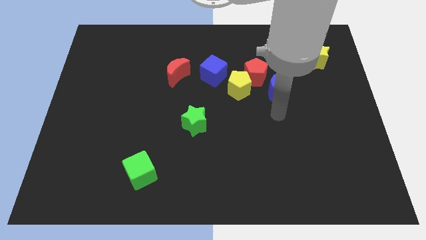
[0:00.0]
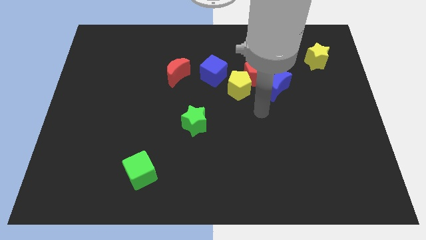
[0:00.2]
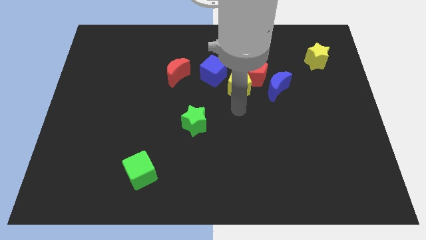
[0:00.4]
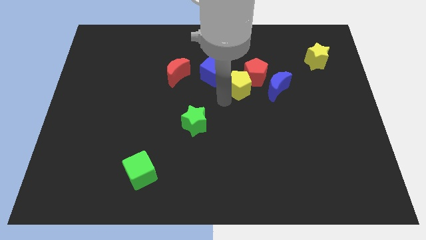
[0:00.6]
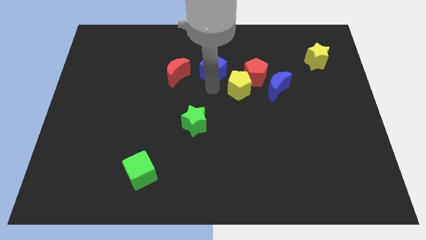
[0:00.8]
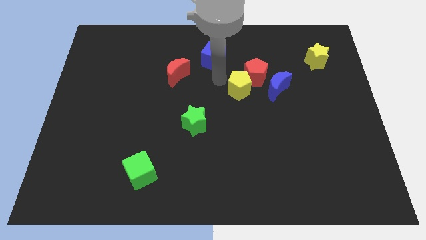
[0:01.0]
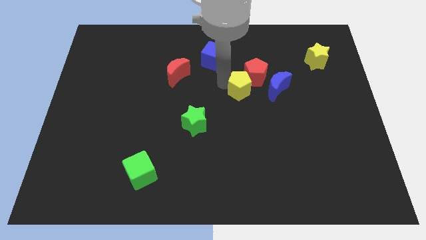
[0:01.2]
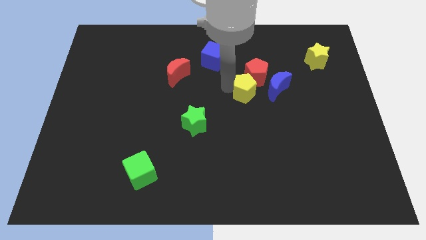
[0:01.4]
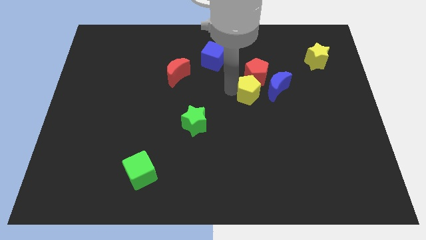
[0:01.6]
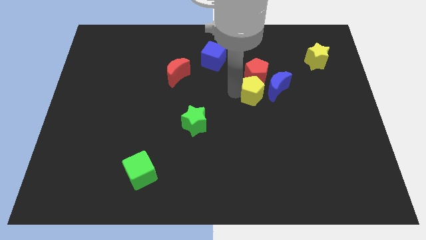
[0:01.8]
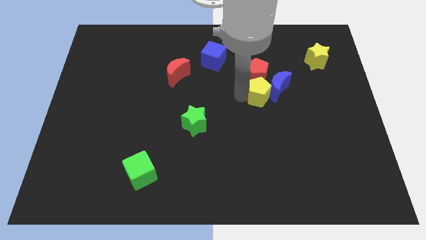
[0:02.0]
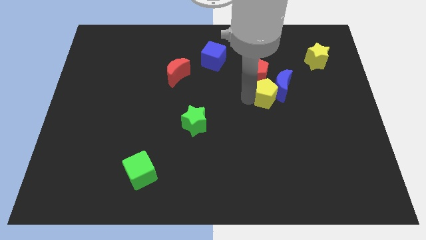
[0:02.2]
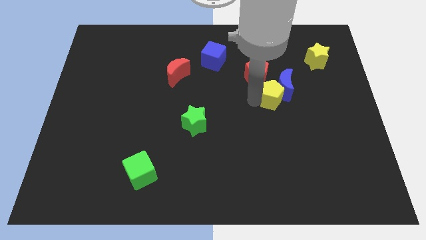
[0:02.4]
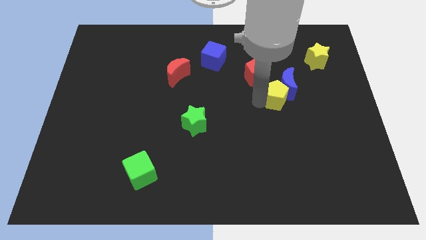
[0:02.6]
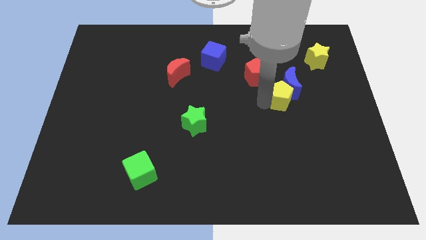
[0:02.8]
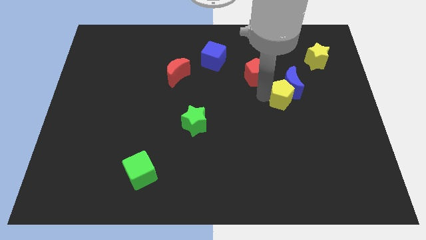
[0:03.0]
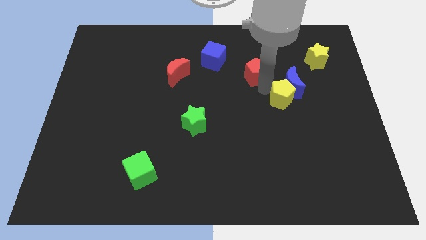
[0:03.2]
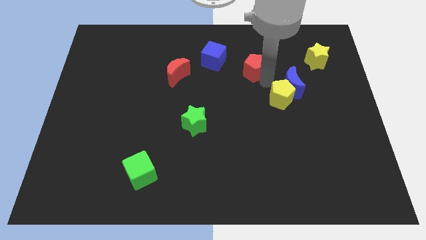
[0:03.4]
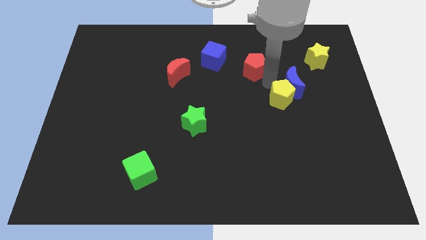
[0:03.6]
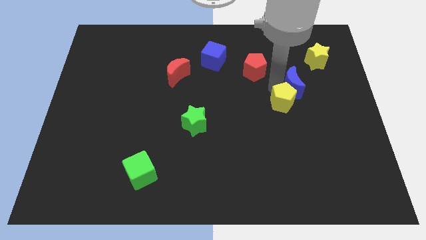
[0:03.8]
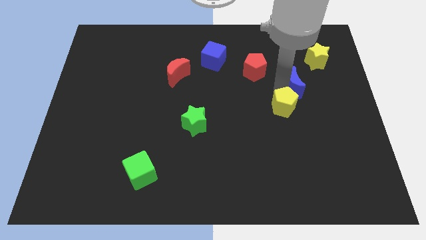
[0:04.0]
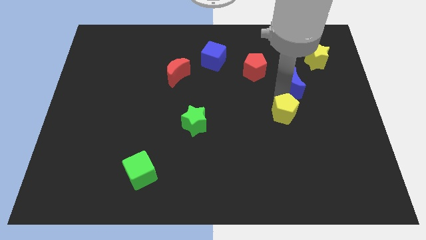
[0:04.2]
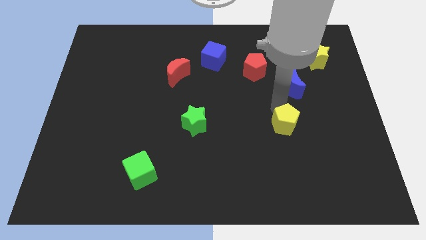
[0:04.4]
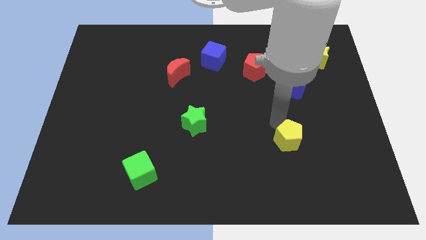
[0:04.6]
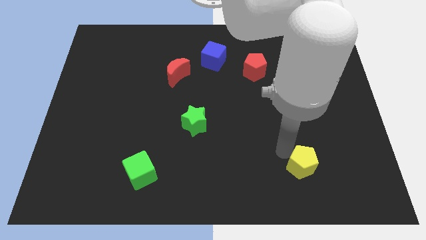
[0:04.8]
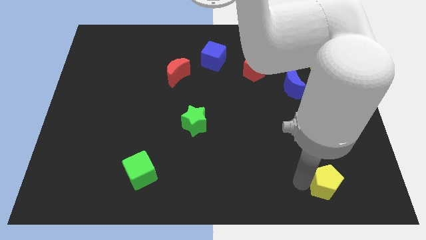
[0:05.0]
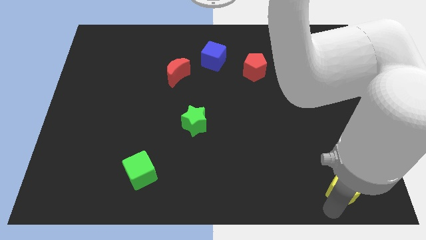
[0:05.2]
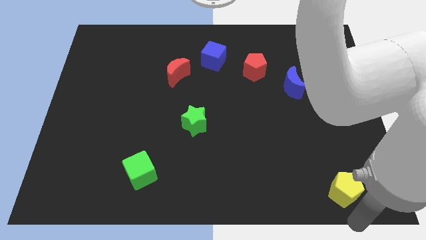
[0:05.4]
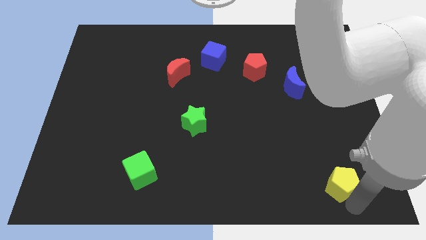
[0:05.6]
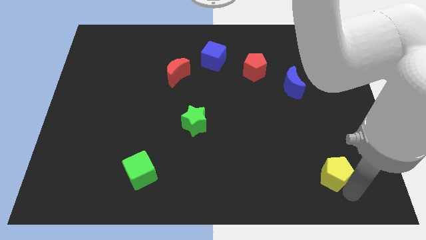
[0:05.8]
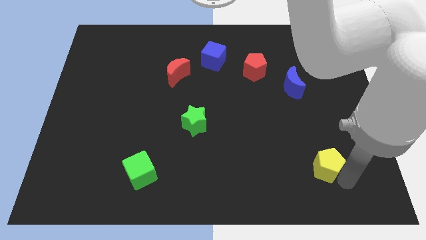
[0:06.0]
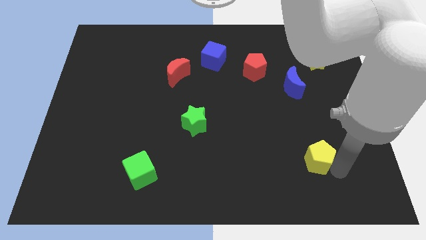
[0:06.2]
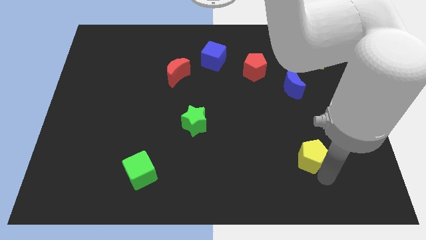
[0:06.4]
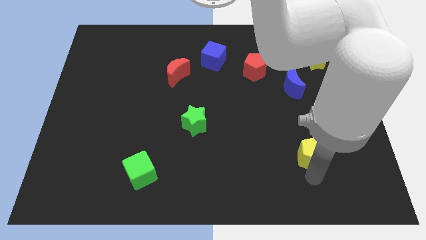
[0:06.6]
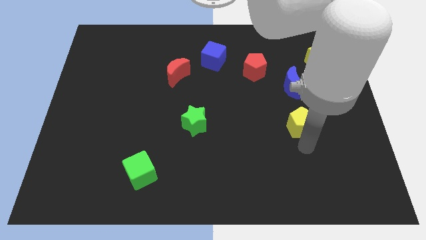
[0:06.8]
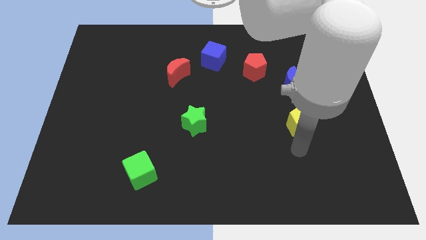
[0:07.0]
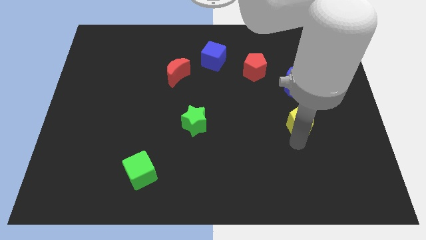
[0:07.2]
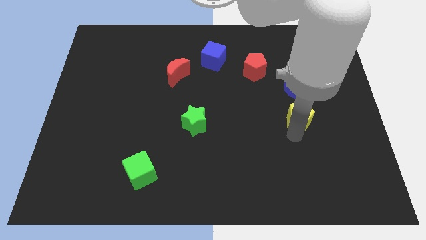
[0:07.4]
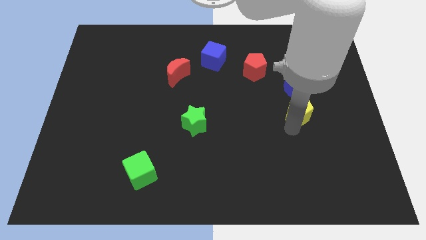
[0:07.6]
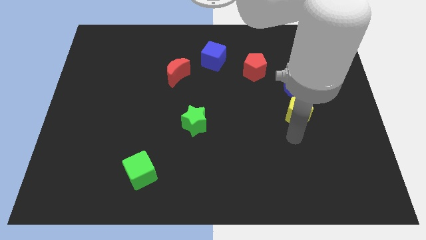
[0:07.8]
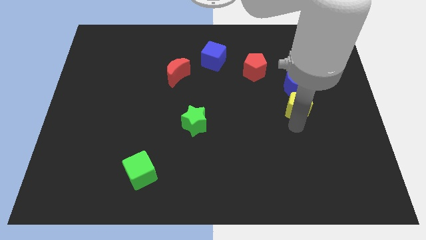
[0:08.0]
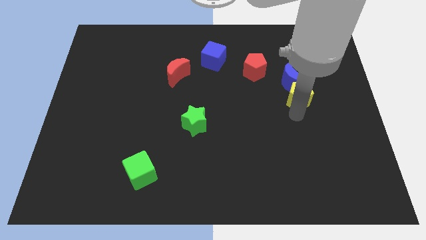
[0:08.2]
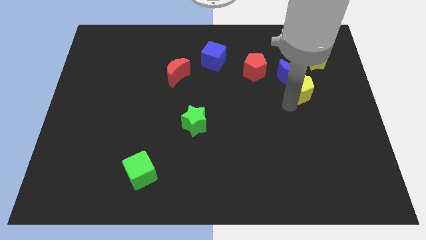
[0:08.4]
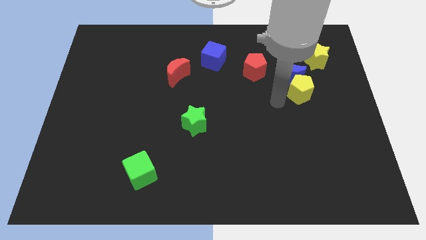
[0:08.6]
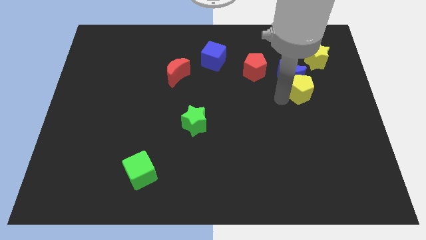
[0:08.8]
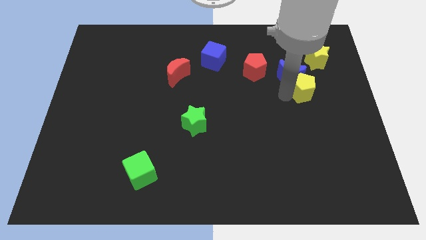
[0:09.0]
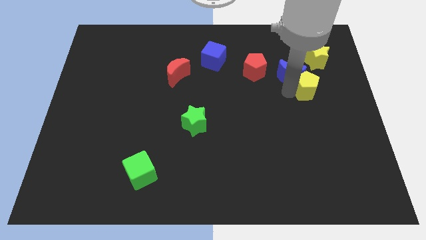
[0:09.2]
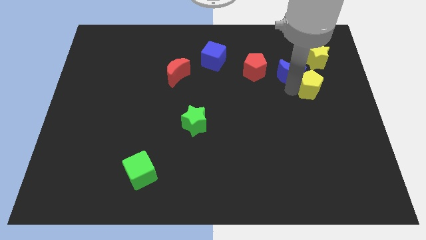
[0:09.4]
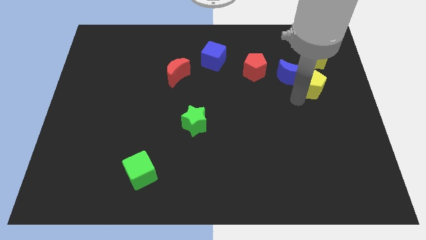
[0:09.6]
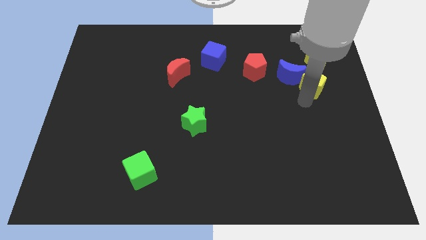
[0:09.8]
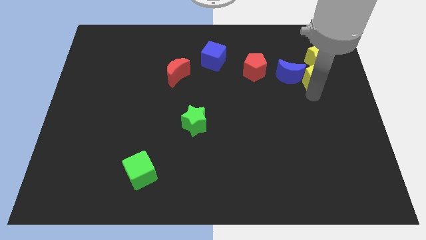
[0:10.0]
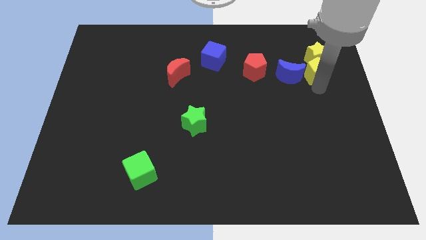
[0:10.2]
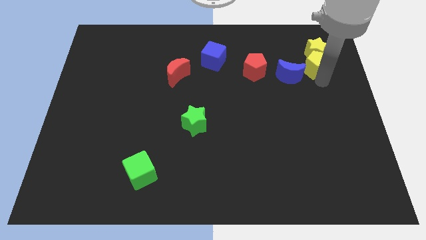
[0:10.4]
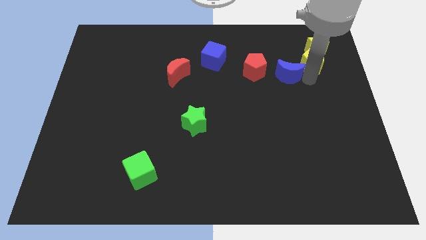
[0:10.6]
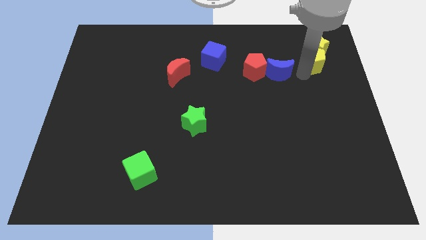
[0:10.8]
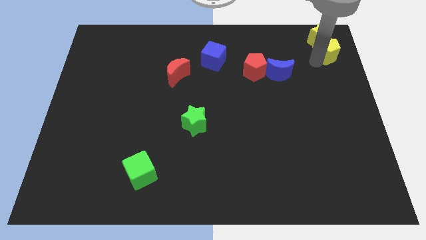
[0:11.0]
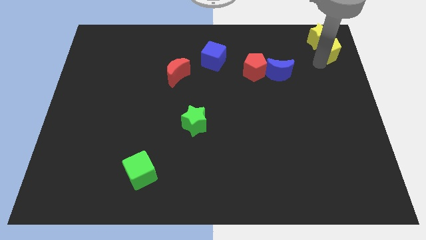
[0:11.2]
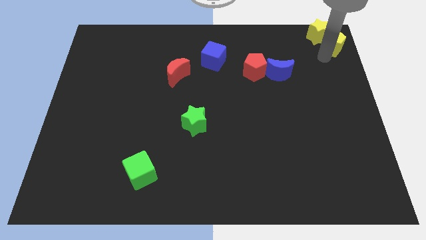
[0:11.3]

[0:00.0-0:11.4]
push the yellow pentagon to the top right

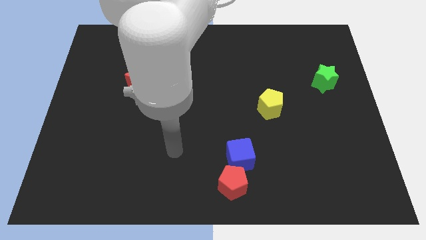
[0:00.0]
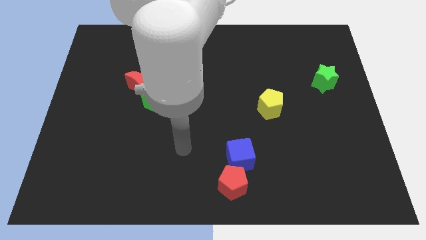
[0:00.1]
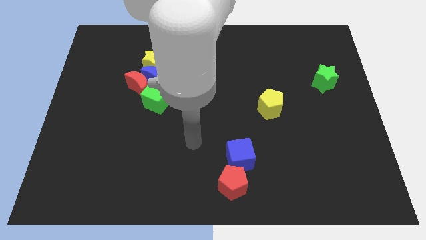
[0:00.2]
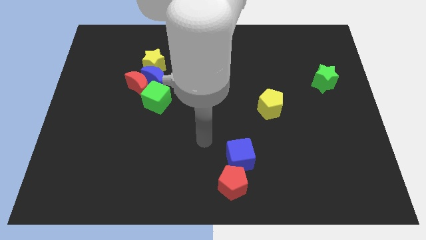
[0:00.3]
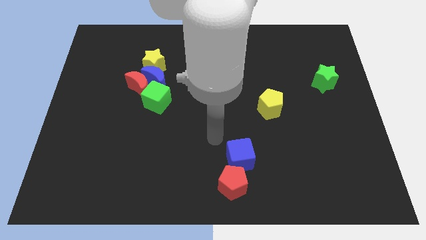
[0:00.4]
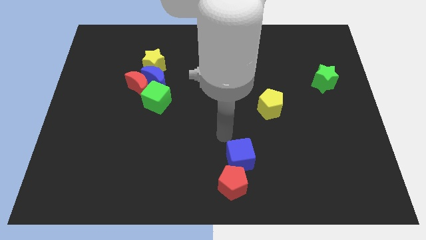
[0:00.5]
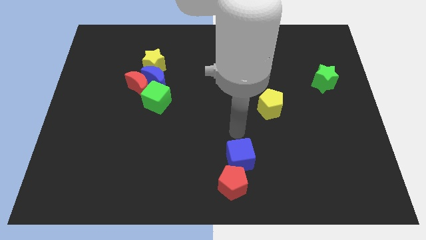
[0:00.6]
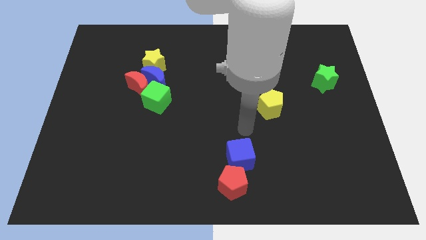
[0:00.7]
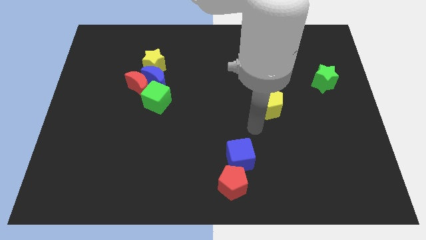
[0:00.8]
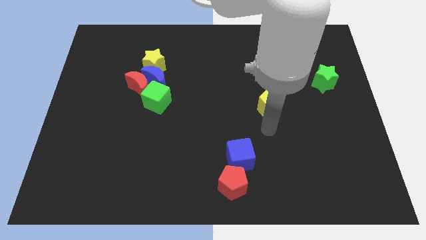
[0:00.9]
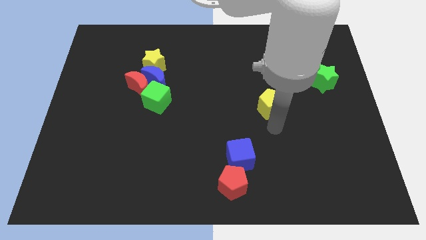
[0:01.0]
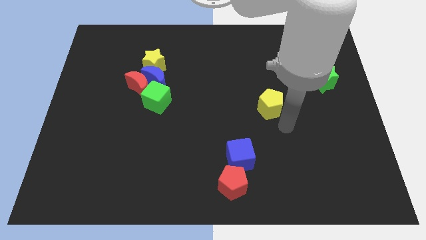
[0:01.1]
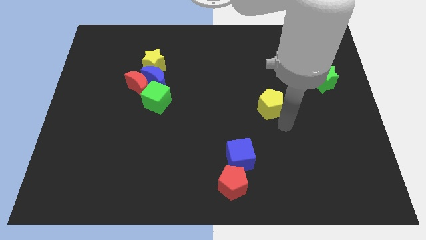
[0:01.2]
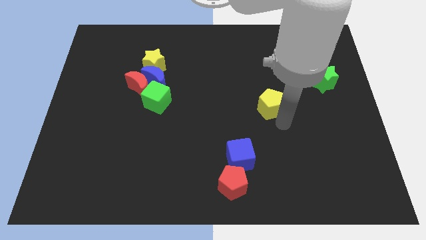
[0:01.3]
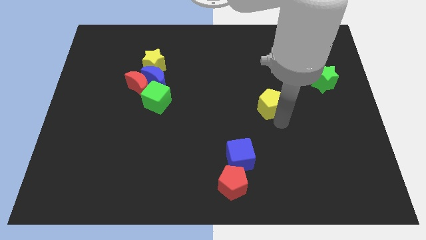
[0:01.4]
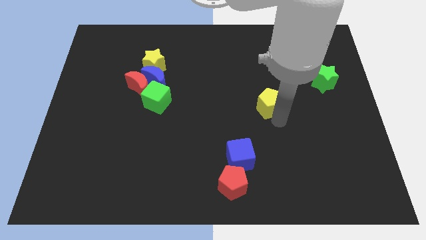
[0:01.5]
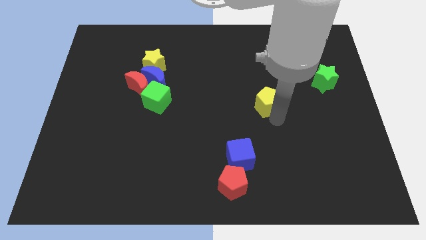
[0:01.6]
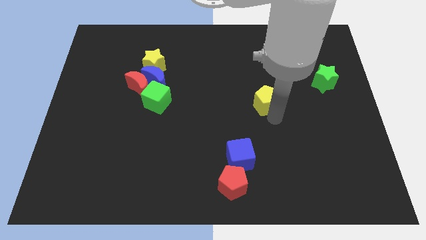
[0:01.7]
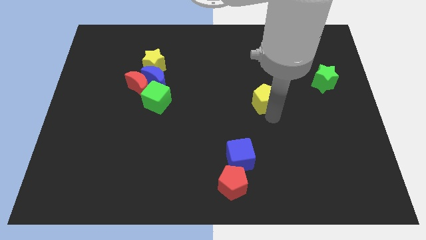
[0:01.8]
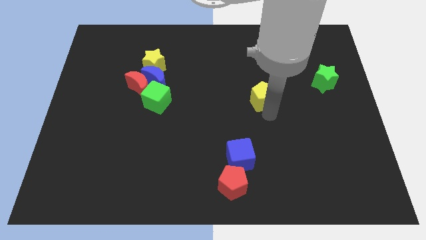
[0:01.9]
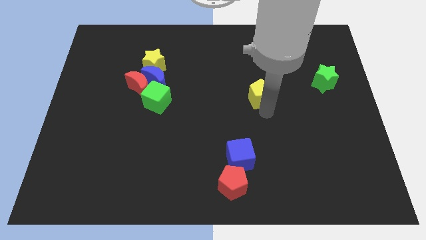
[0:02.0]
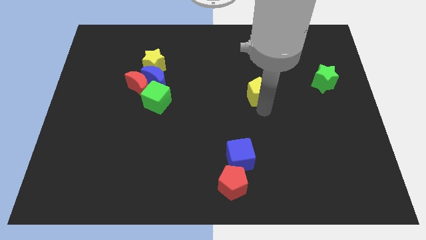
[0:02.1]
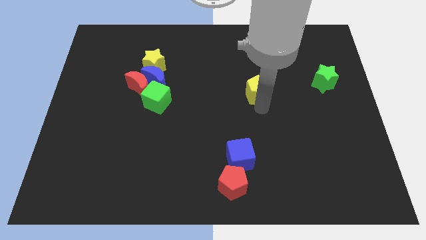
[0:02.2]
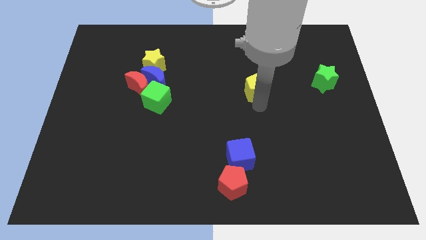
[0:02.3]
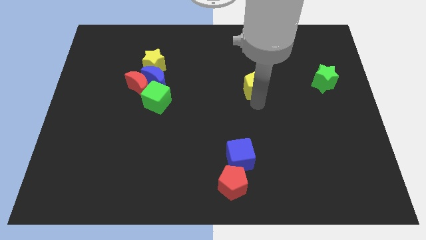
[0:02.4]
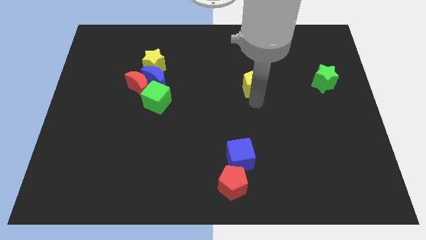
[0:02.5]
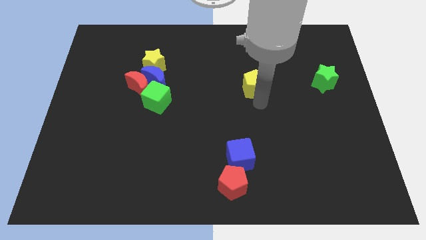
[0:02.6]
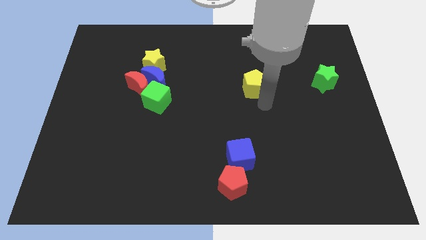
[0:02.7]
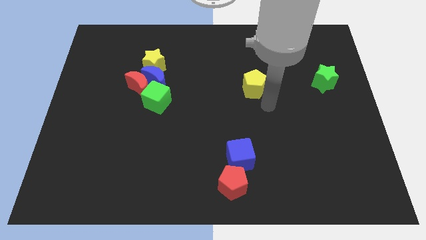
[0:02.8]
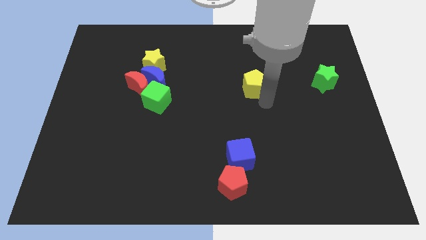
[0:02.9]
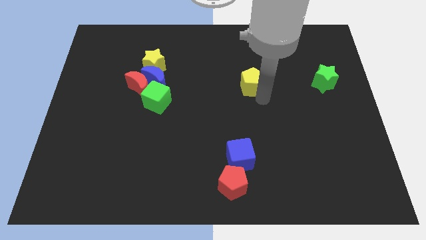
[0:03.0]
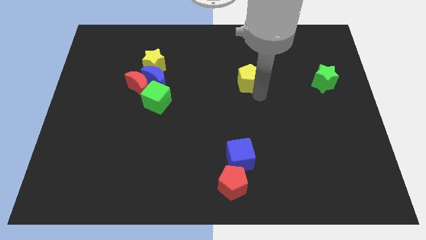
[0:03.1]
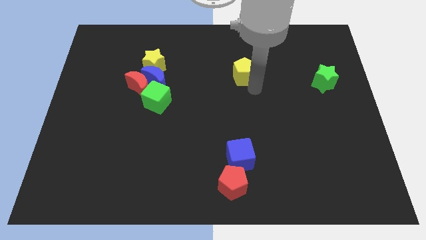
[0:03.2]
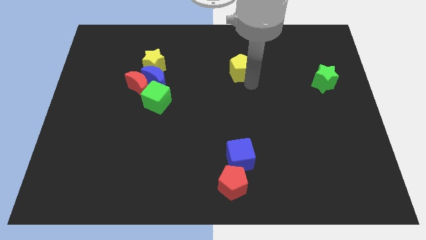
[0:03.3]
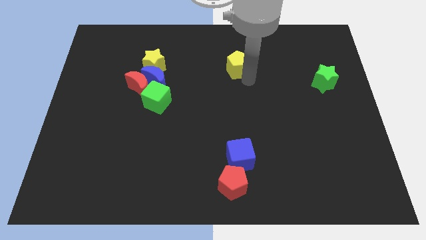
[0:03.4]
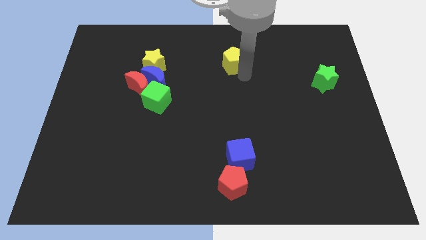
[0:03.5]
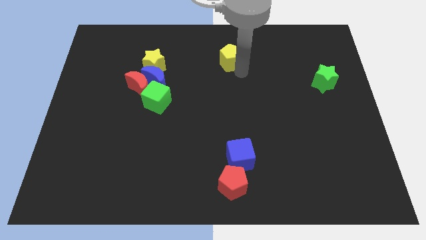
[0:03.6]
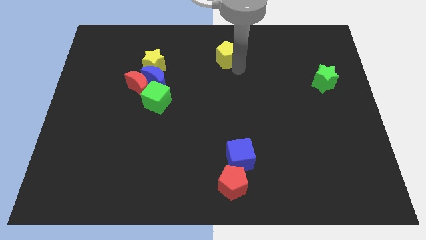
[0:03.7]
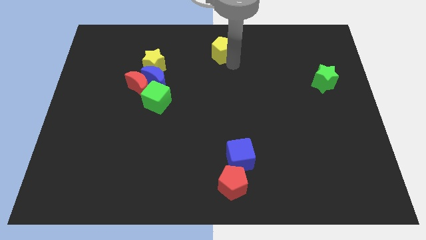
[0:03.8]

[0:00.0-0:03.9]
move the yellow pentagon to the towards your base
